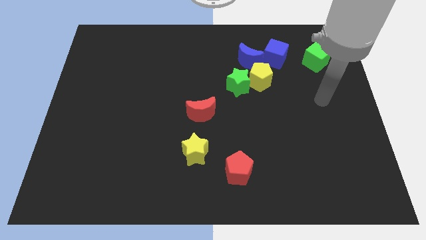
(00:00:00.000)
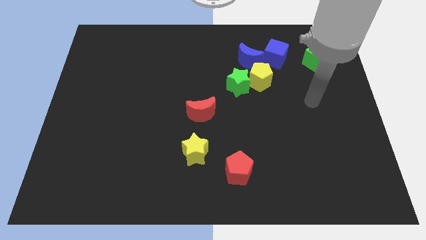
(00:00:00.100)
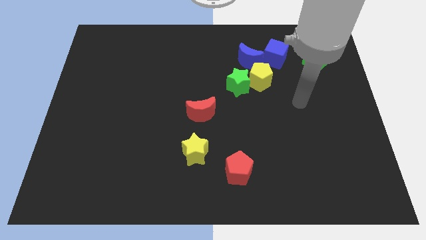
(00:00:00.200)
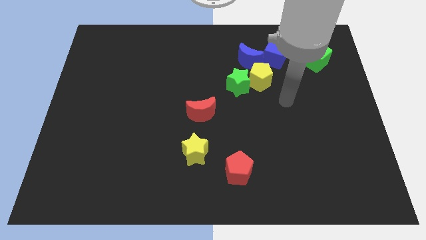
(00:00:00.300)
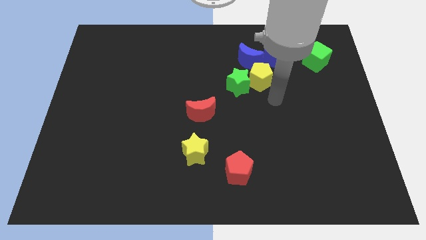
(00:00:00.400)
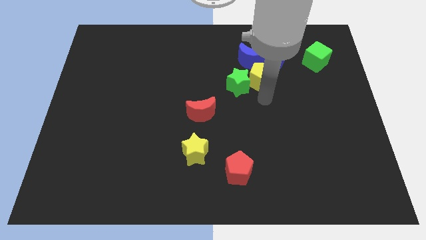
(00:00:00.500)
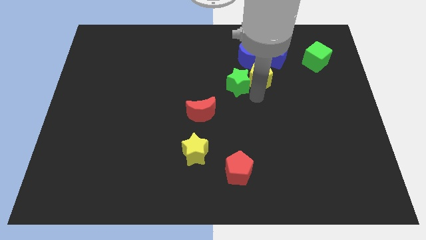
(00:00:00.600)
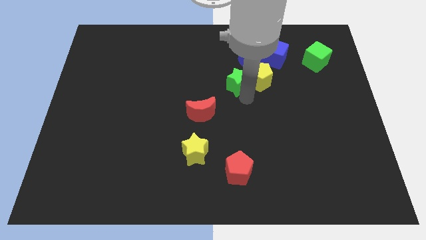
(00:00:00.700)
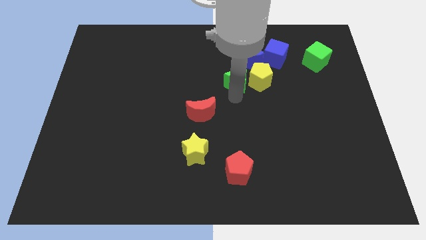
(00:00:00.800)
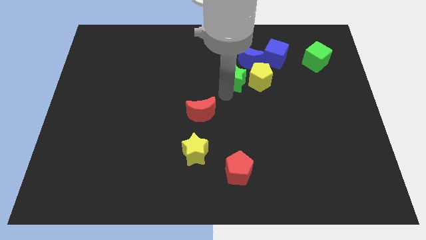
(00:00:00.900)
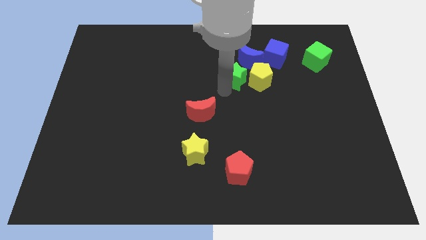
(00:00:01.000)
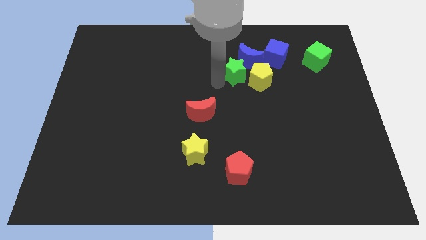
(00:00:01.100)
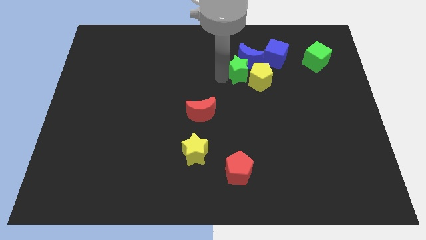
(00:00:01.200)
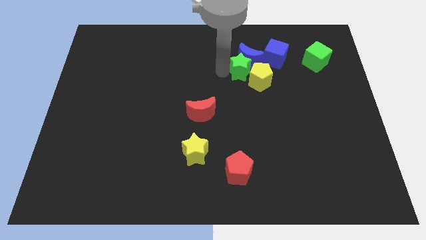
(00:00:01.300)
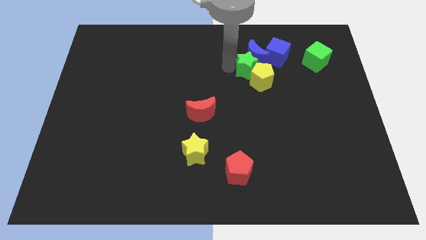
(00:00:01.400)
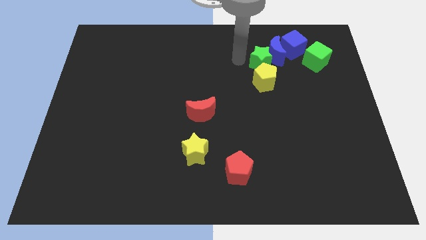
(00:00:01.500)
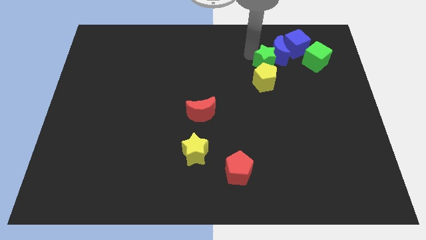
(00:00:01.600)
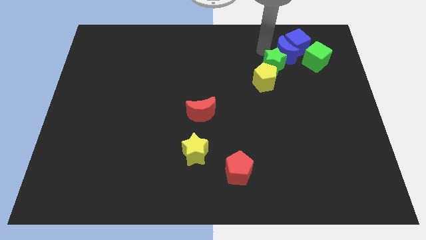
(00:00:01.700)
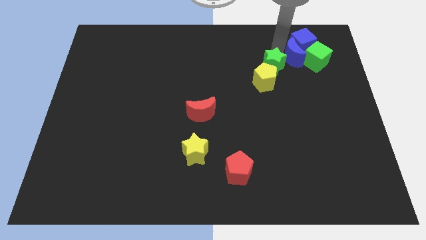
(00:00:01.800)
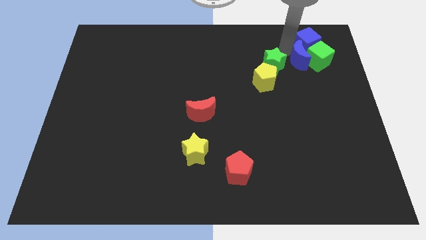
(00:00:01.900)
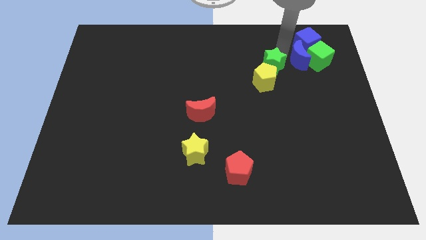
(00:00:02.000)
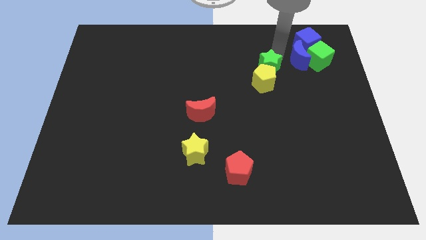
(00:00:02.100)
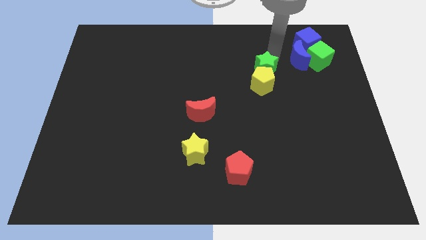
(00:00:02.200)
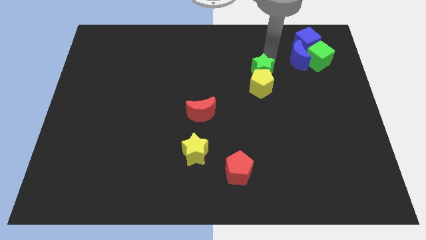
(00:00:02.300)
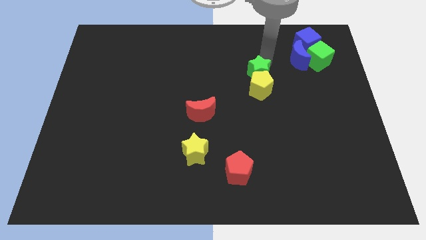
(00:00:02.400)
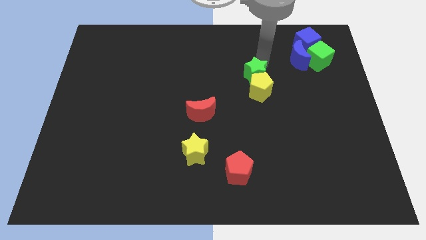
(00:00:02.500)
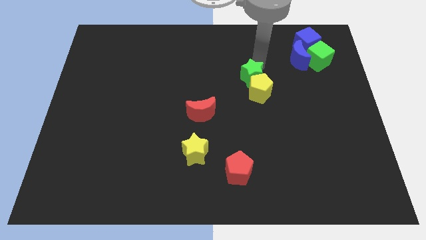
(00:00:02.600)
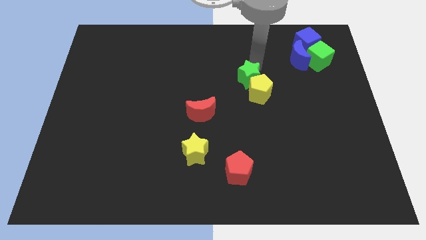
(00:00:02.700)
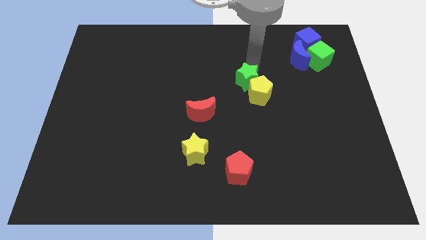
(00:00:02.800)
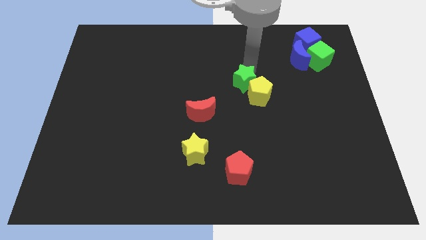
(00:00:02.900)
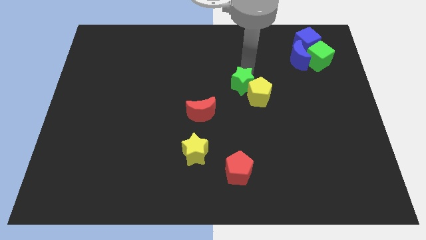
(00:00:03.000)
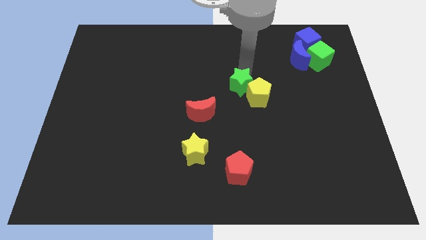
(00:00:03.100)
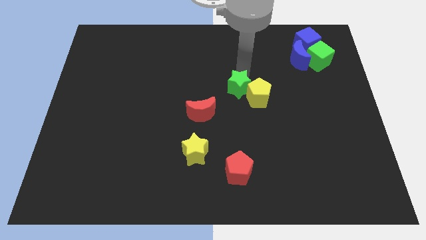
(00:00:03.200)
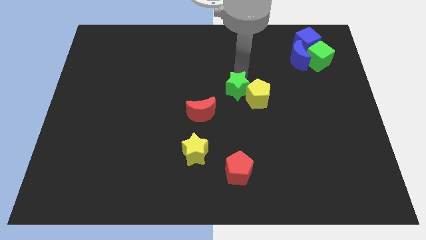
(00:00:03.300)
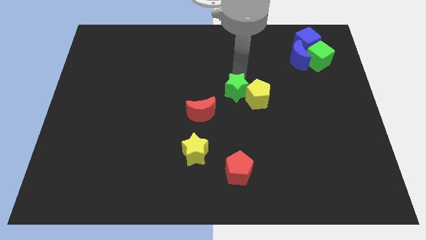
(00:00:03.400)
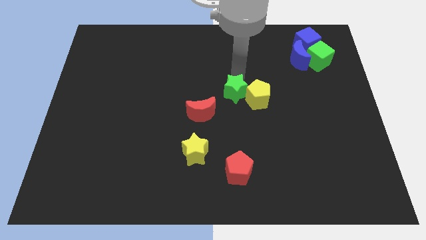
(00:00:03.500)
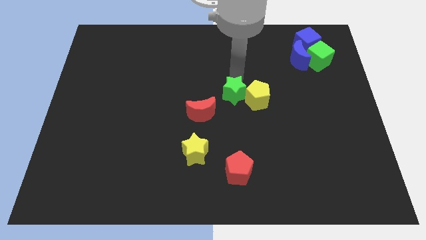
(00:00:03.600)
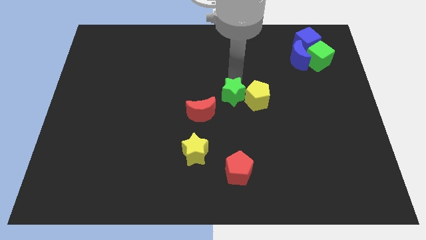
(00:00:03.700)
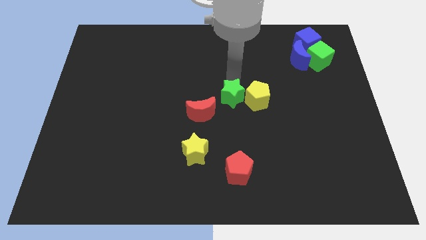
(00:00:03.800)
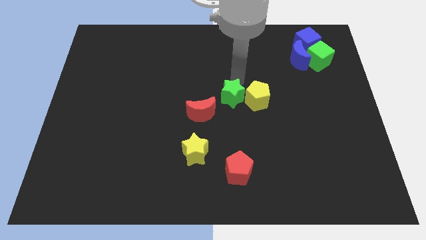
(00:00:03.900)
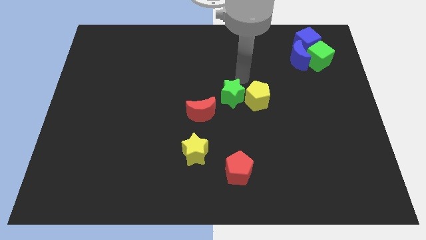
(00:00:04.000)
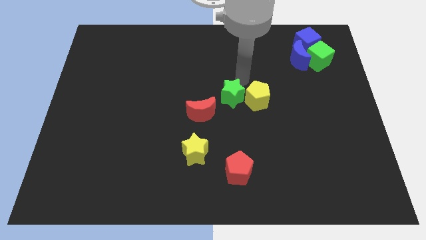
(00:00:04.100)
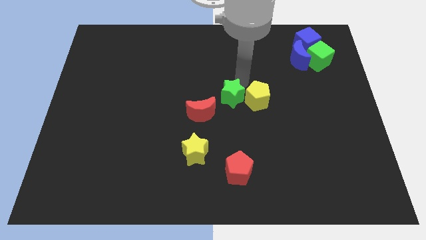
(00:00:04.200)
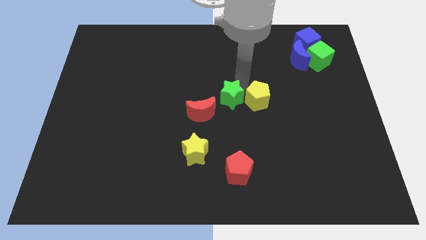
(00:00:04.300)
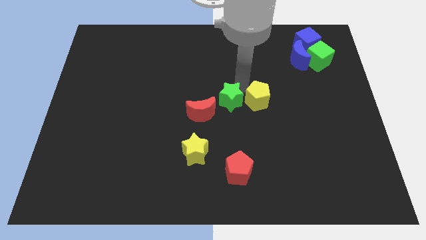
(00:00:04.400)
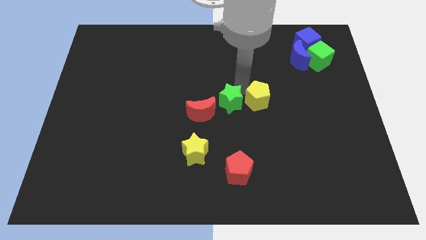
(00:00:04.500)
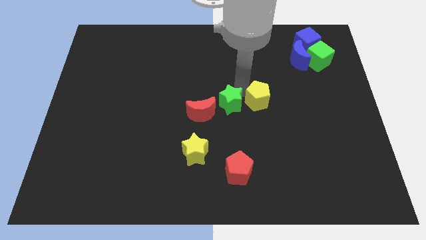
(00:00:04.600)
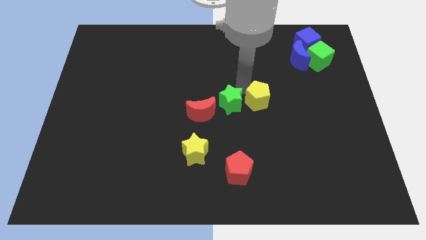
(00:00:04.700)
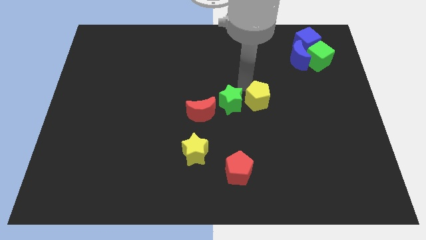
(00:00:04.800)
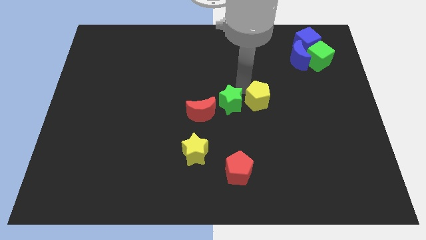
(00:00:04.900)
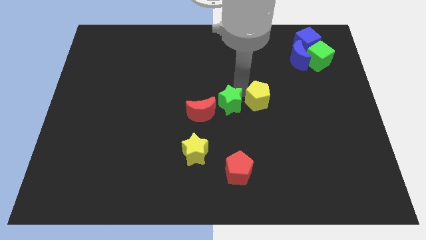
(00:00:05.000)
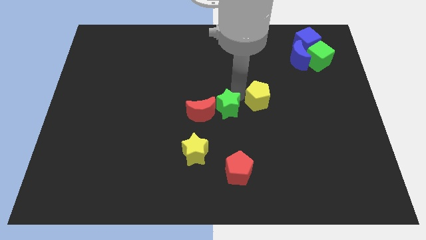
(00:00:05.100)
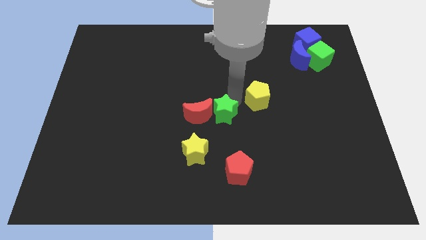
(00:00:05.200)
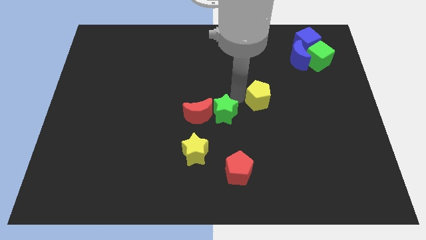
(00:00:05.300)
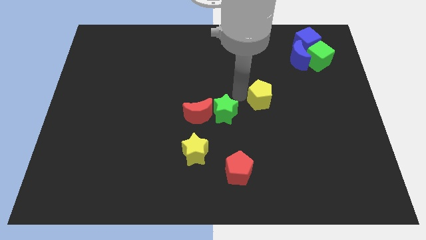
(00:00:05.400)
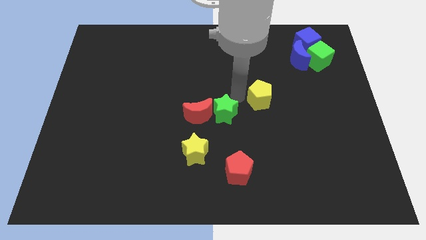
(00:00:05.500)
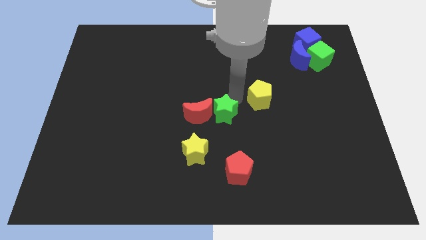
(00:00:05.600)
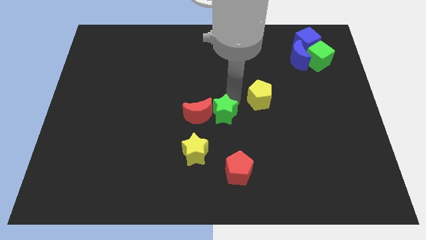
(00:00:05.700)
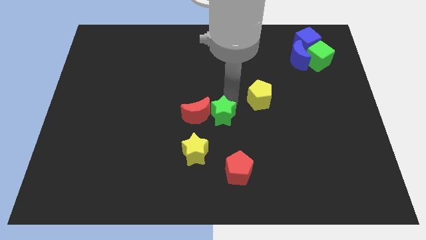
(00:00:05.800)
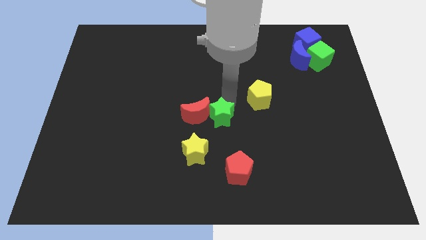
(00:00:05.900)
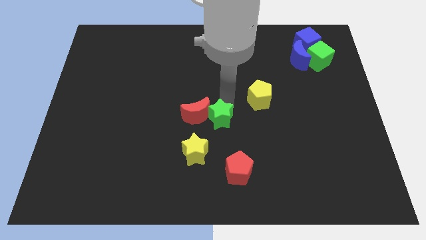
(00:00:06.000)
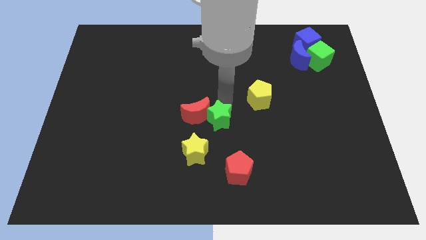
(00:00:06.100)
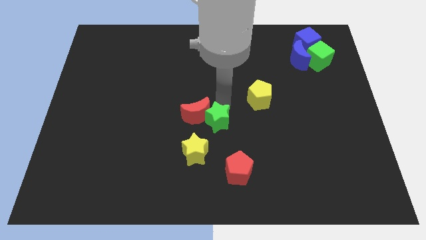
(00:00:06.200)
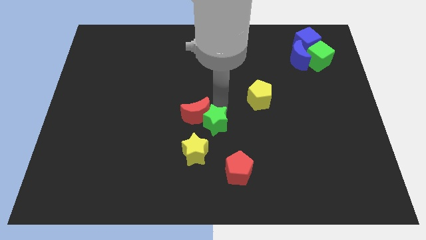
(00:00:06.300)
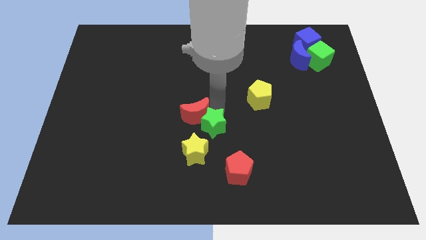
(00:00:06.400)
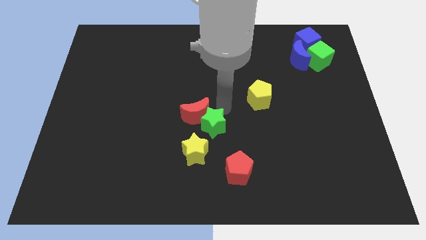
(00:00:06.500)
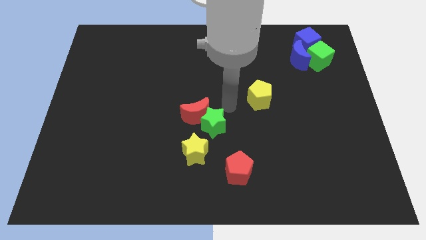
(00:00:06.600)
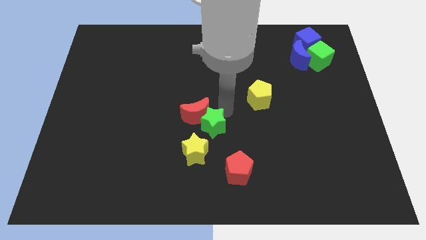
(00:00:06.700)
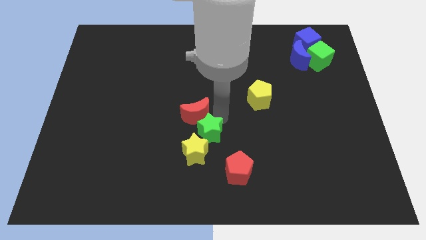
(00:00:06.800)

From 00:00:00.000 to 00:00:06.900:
slide the green star close to the yellow star

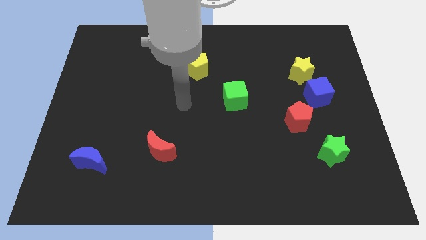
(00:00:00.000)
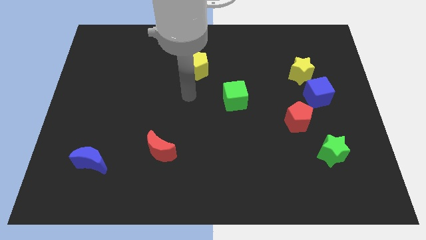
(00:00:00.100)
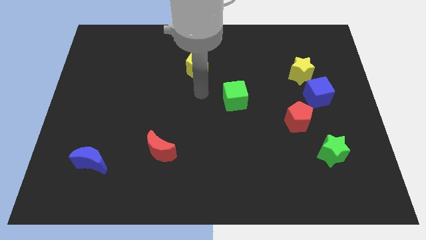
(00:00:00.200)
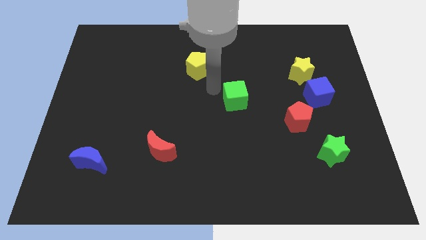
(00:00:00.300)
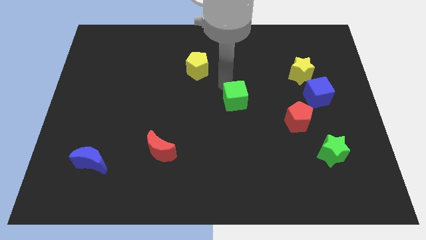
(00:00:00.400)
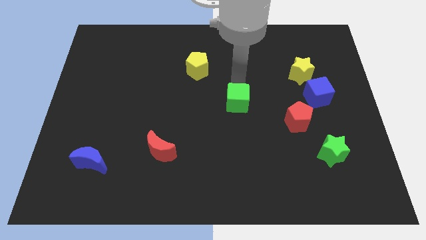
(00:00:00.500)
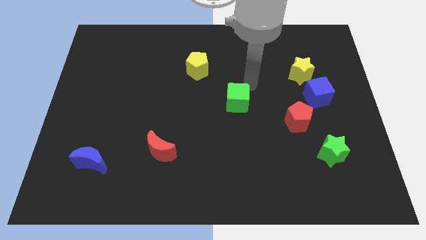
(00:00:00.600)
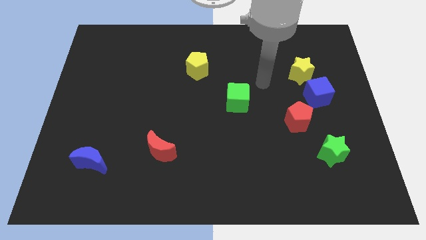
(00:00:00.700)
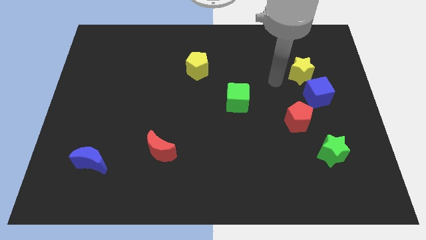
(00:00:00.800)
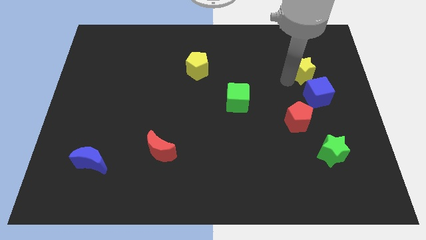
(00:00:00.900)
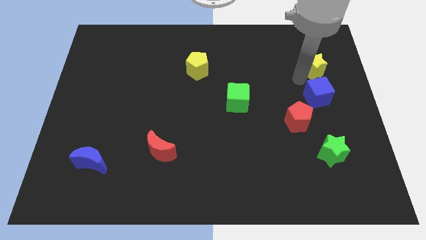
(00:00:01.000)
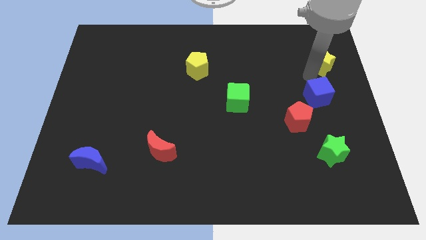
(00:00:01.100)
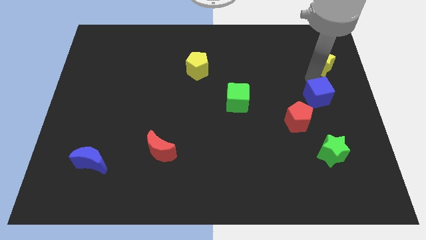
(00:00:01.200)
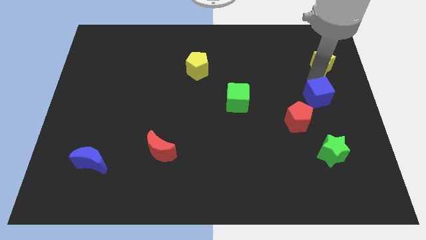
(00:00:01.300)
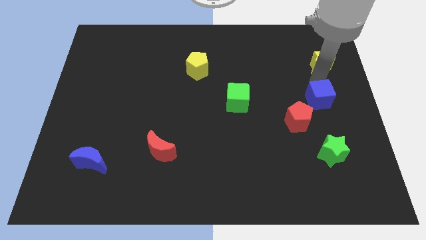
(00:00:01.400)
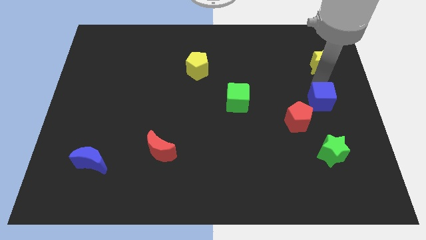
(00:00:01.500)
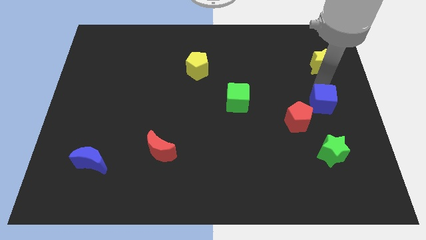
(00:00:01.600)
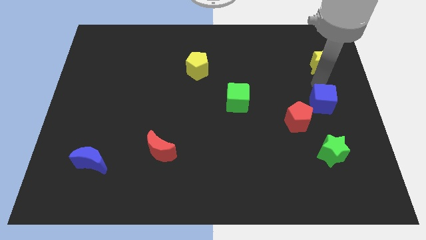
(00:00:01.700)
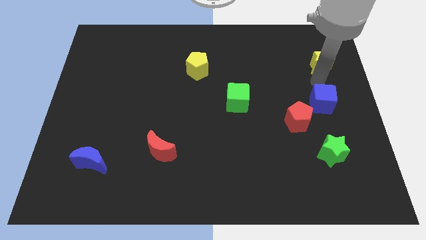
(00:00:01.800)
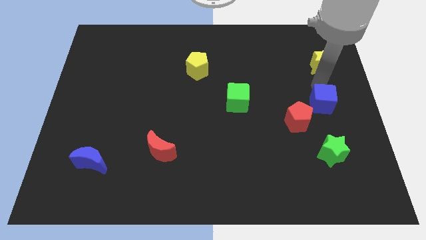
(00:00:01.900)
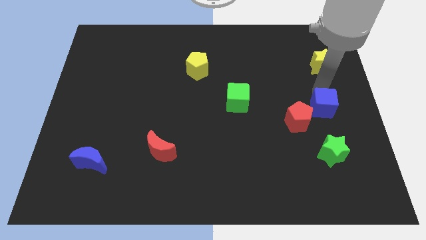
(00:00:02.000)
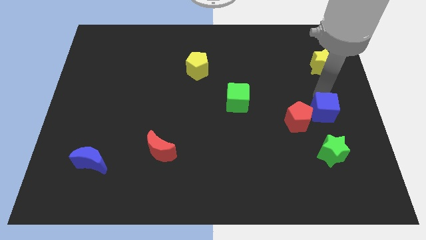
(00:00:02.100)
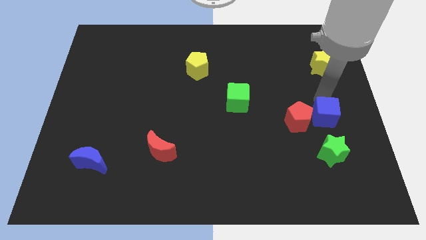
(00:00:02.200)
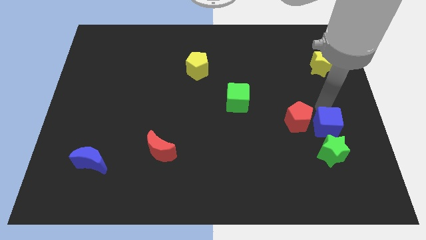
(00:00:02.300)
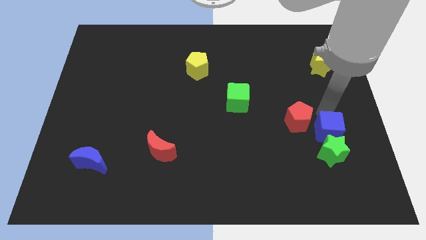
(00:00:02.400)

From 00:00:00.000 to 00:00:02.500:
slide the blue cube close to the green star
